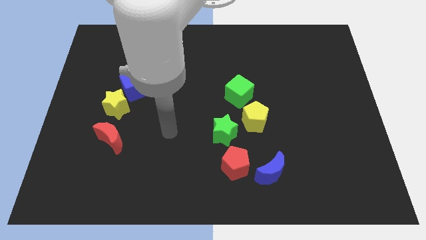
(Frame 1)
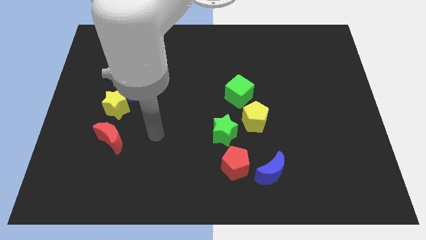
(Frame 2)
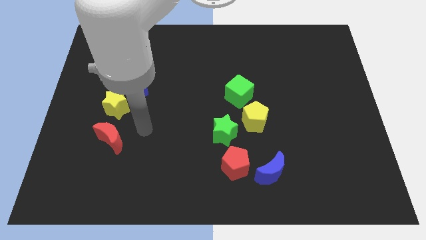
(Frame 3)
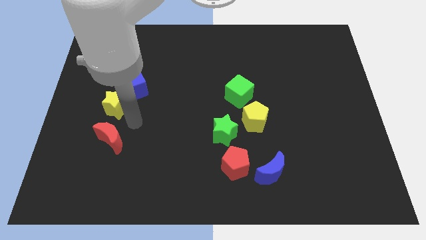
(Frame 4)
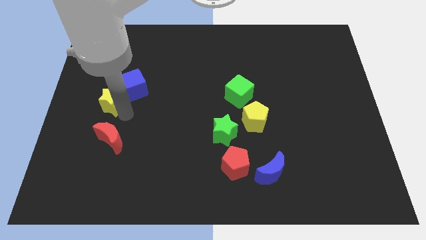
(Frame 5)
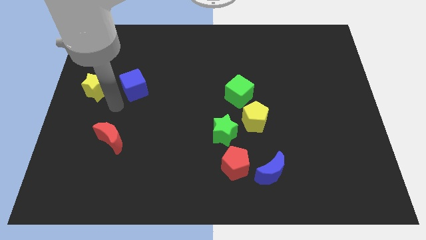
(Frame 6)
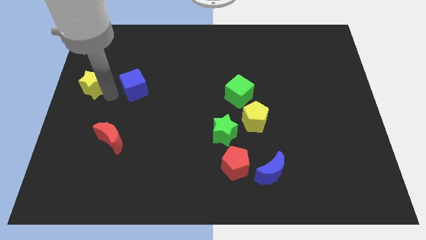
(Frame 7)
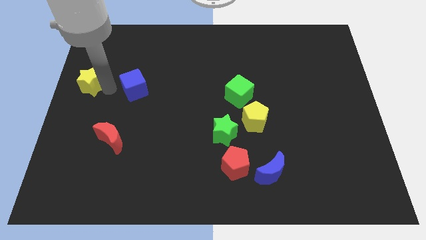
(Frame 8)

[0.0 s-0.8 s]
pull the blue cube apart from the yellow star

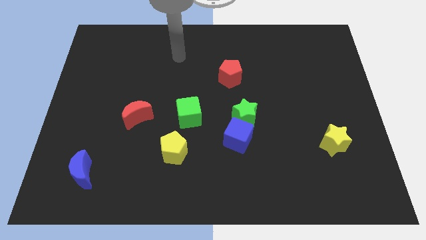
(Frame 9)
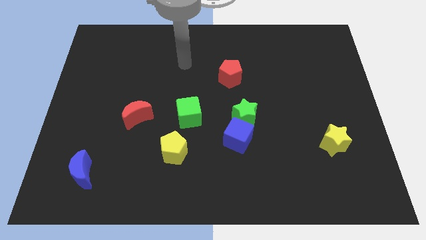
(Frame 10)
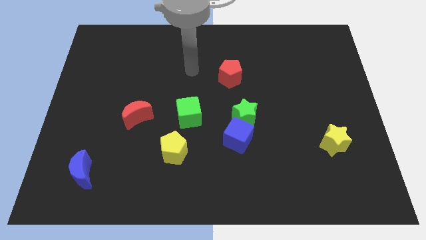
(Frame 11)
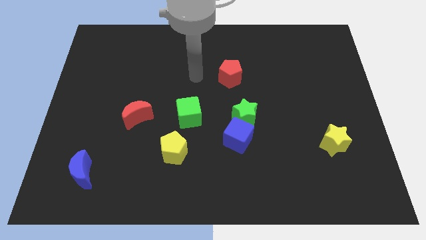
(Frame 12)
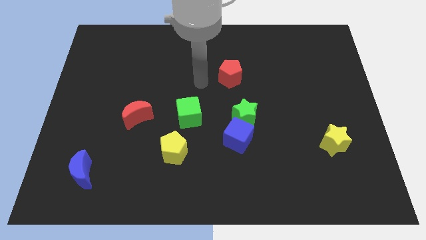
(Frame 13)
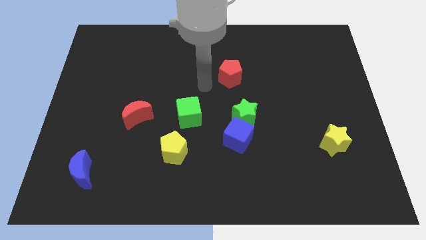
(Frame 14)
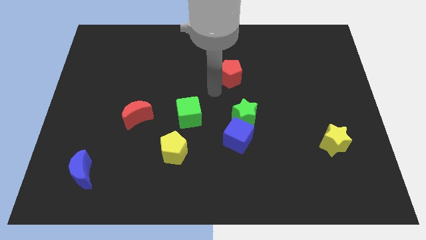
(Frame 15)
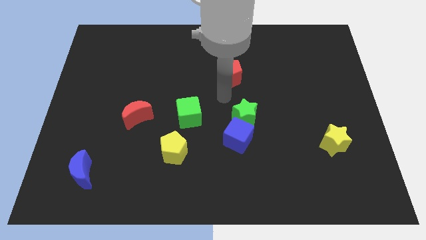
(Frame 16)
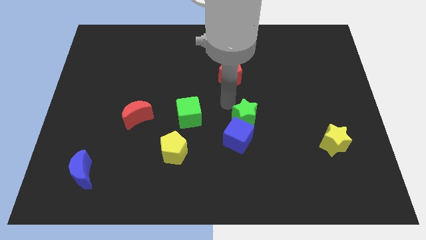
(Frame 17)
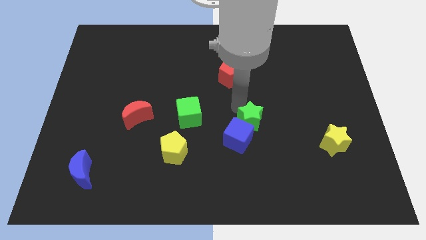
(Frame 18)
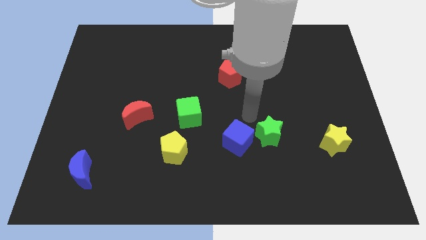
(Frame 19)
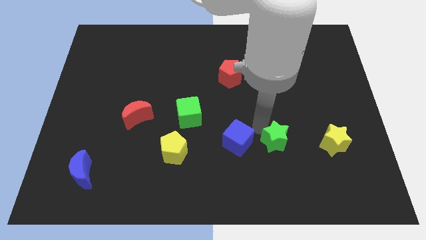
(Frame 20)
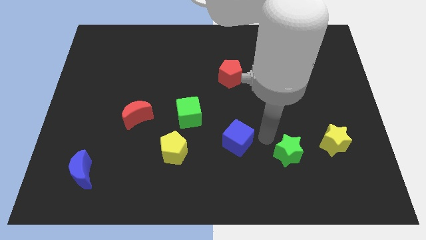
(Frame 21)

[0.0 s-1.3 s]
pull the blue cube apart from the green star

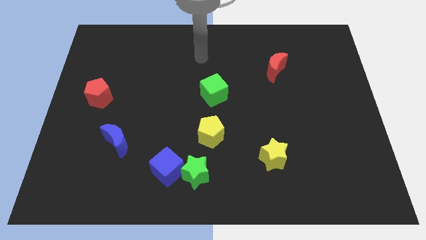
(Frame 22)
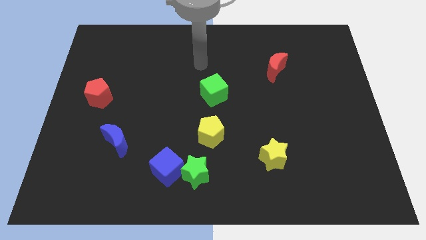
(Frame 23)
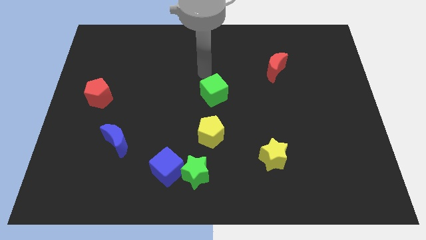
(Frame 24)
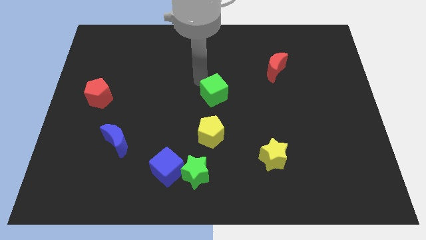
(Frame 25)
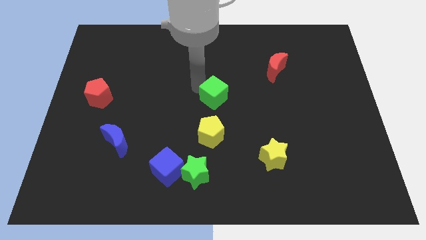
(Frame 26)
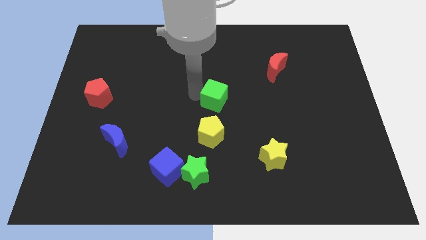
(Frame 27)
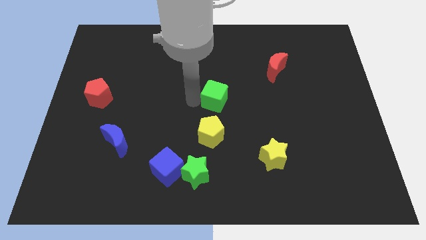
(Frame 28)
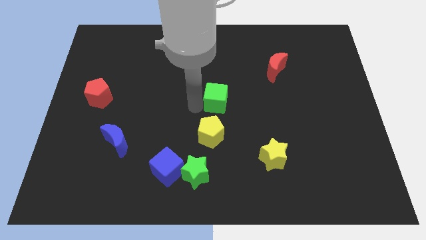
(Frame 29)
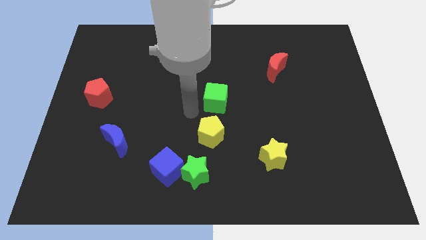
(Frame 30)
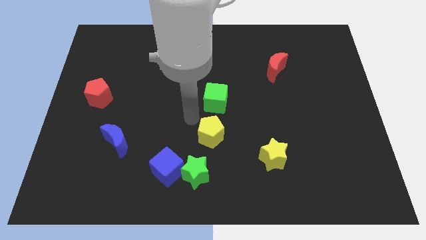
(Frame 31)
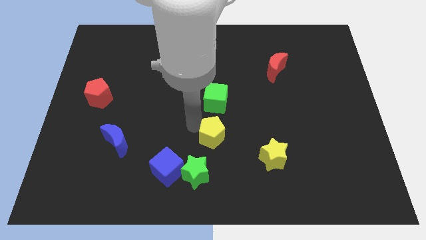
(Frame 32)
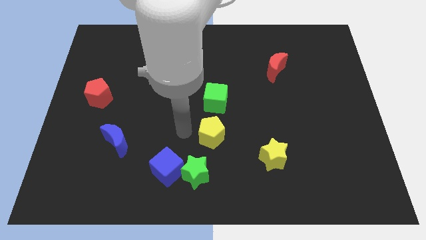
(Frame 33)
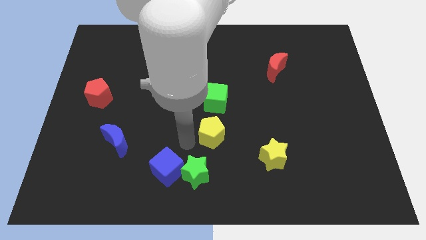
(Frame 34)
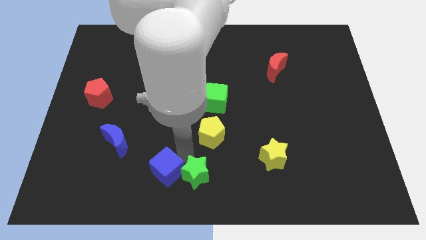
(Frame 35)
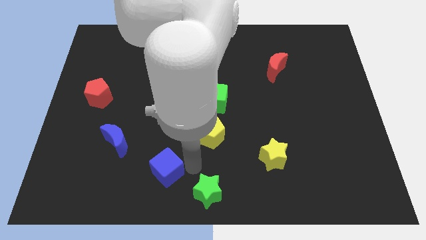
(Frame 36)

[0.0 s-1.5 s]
move the blue cube away from the green star

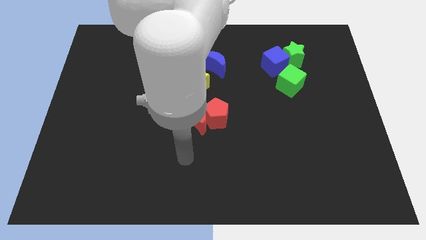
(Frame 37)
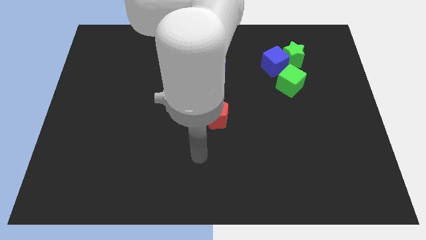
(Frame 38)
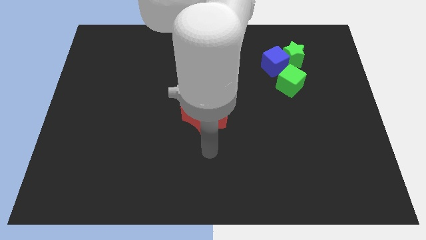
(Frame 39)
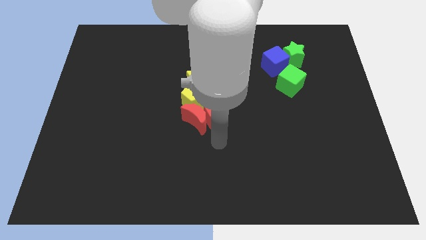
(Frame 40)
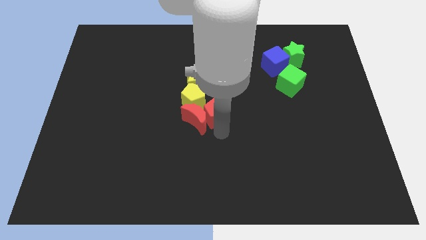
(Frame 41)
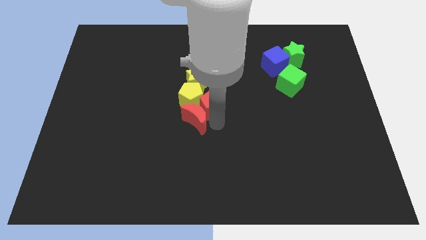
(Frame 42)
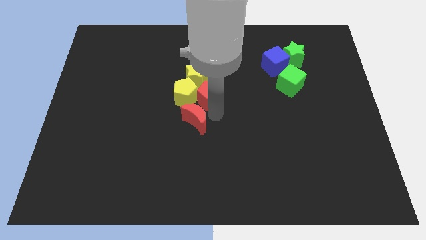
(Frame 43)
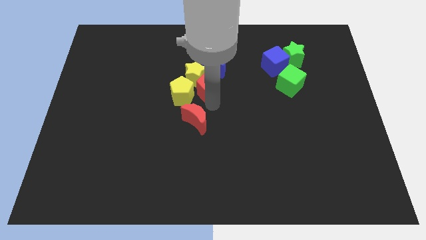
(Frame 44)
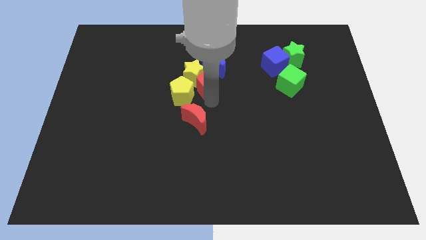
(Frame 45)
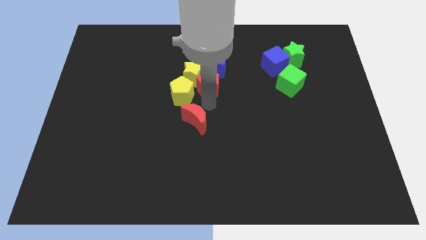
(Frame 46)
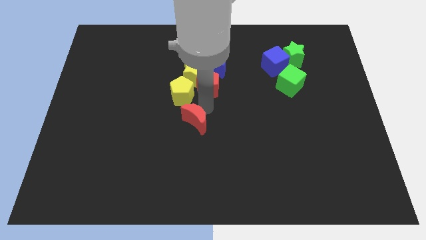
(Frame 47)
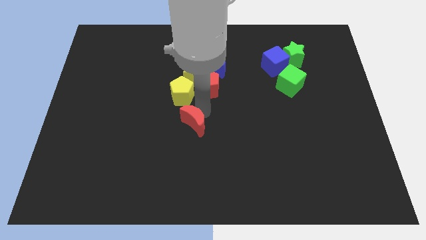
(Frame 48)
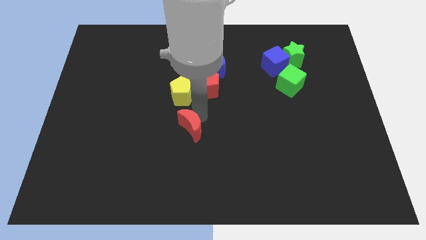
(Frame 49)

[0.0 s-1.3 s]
move the red moon away from the red pentagon and yellow pentagon

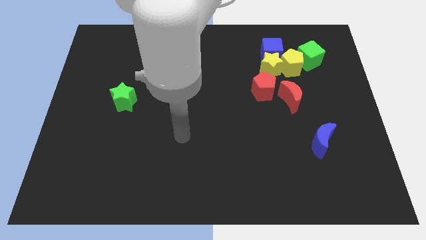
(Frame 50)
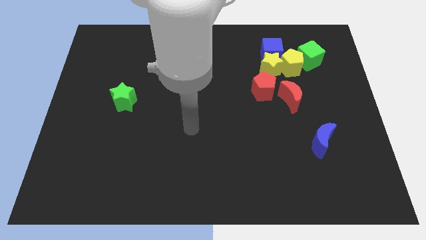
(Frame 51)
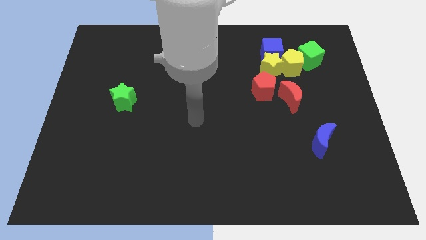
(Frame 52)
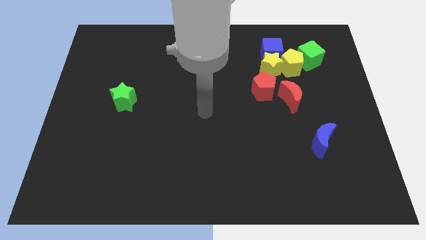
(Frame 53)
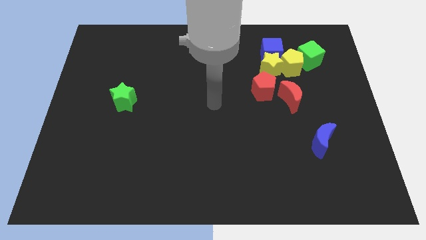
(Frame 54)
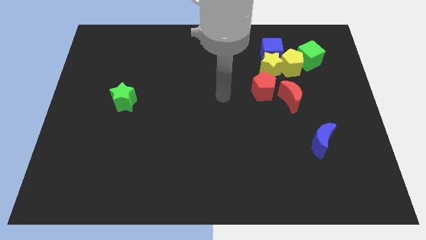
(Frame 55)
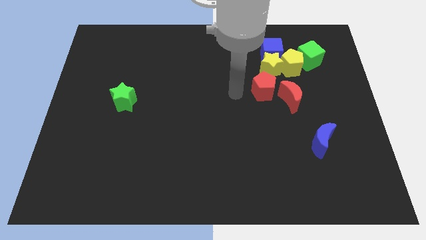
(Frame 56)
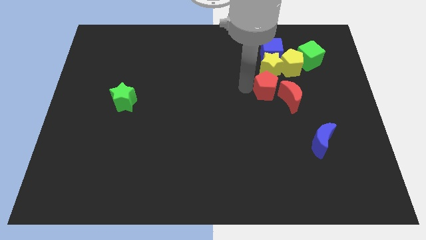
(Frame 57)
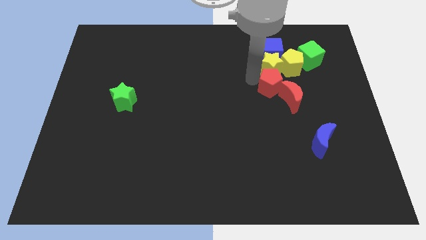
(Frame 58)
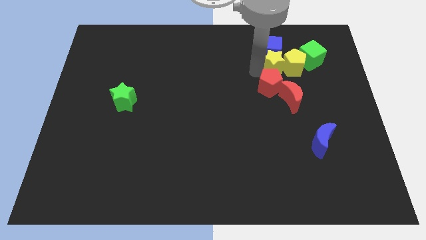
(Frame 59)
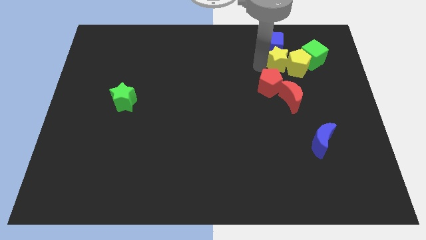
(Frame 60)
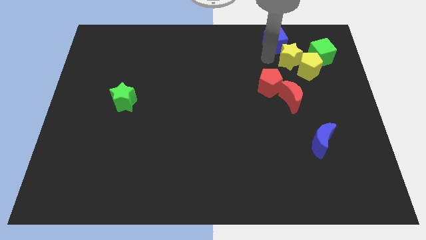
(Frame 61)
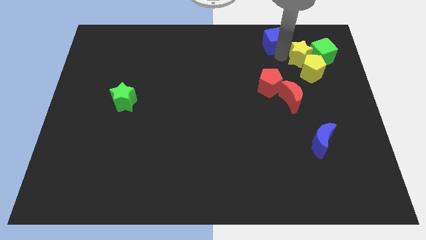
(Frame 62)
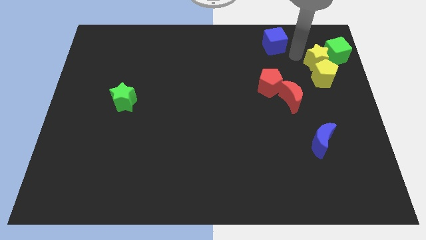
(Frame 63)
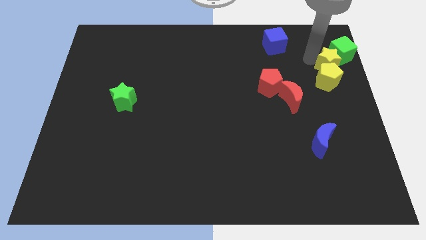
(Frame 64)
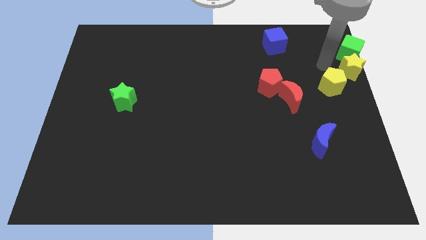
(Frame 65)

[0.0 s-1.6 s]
separate the yellow pentagon from the yellow star, green cube, and blue cube

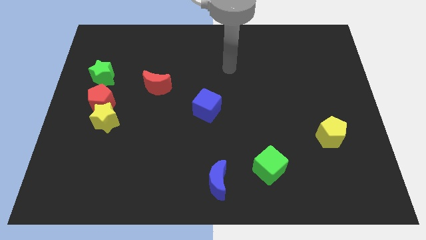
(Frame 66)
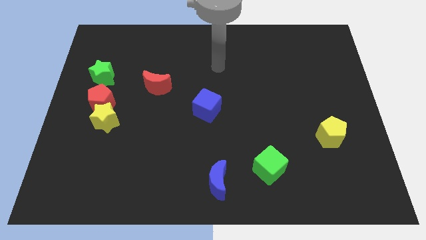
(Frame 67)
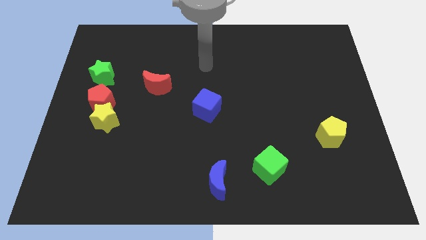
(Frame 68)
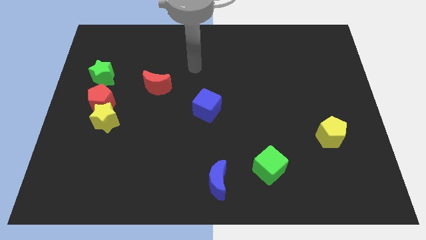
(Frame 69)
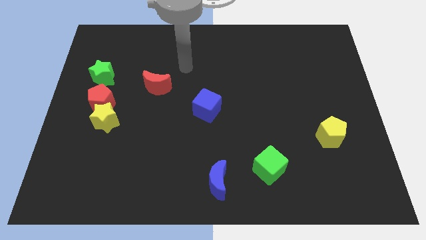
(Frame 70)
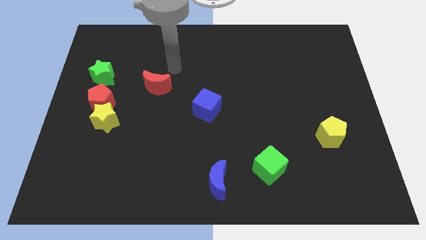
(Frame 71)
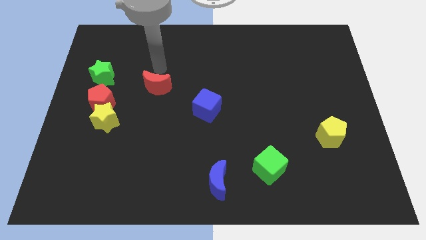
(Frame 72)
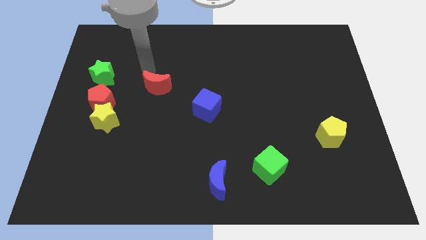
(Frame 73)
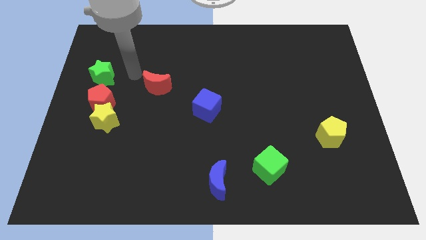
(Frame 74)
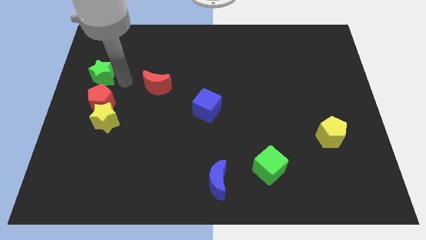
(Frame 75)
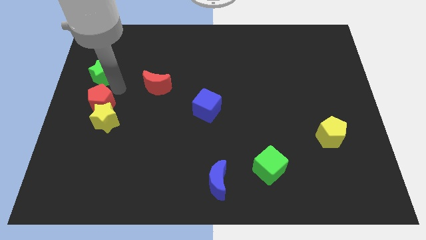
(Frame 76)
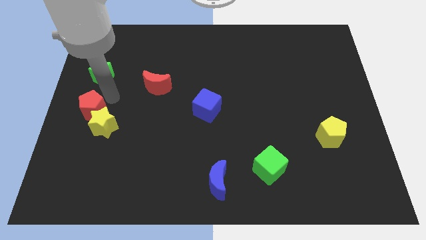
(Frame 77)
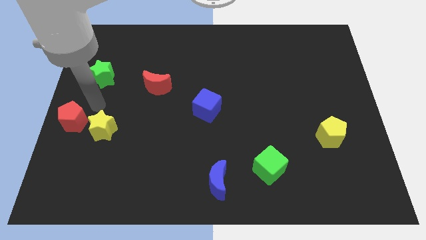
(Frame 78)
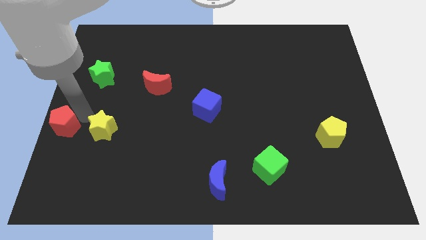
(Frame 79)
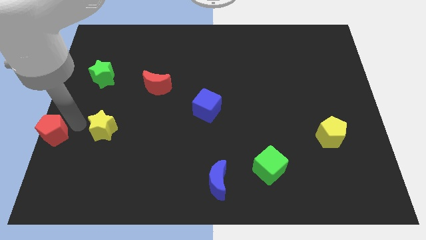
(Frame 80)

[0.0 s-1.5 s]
separate the yellow star from the red pentagon

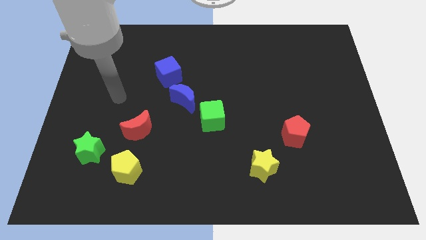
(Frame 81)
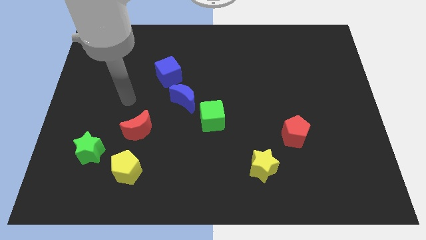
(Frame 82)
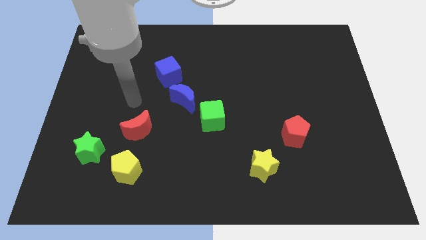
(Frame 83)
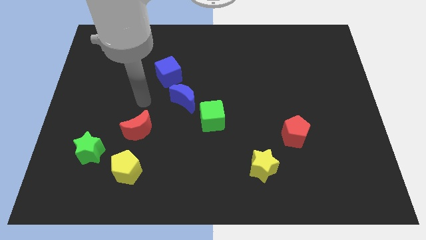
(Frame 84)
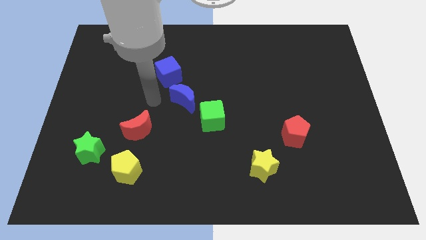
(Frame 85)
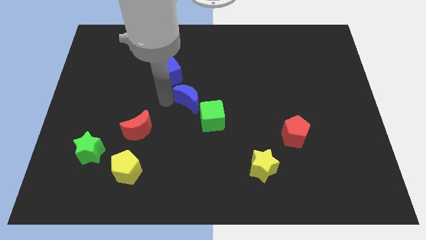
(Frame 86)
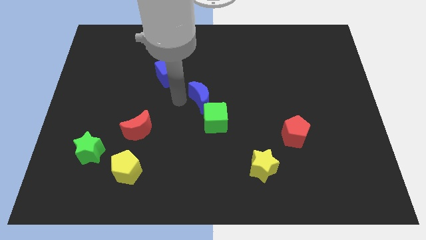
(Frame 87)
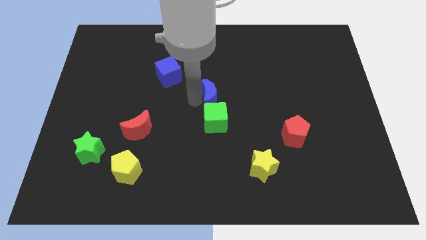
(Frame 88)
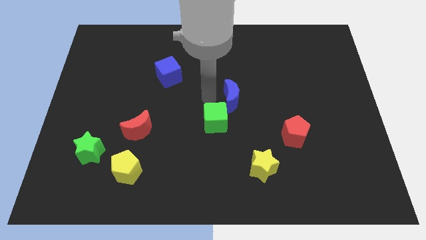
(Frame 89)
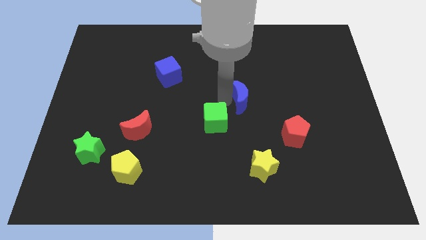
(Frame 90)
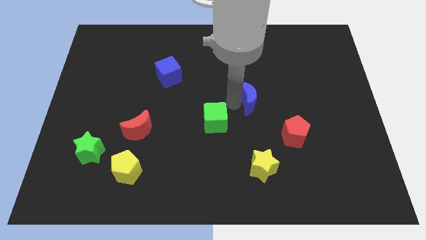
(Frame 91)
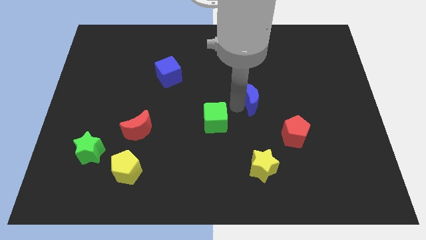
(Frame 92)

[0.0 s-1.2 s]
separate the green cube from the blue moon
